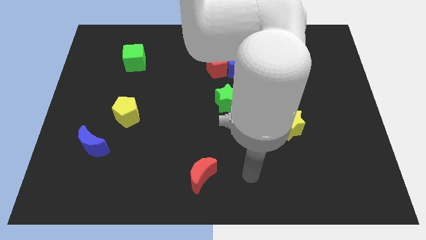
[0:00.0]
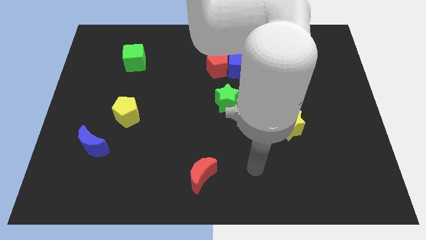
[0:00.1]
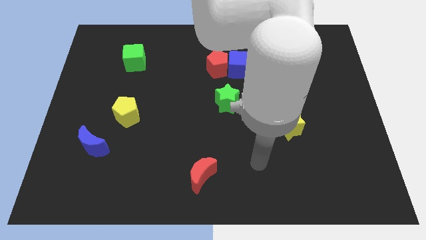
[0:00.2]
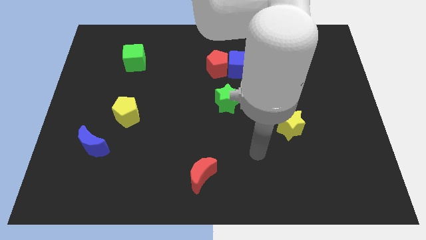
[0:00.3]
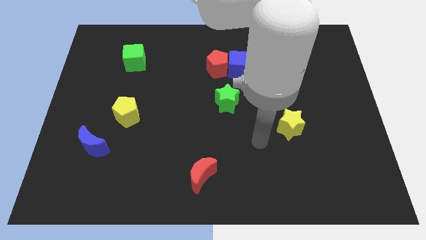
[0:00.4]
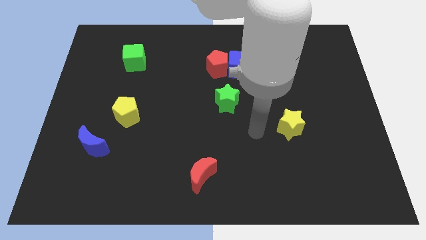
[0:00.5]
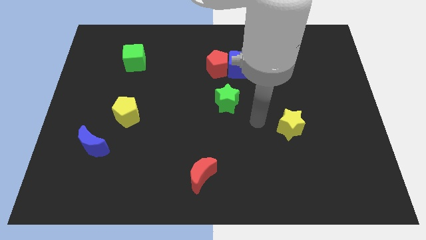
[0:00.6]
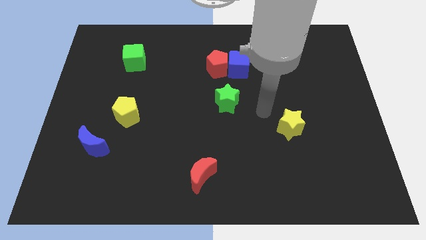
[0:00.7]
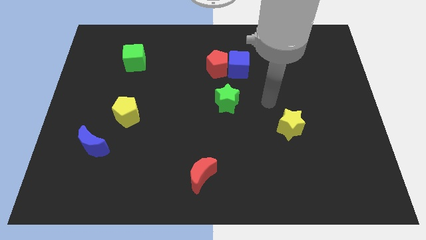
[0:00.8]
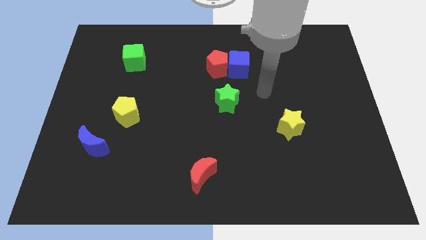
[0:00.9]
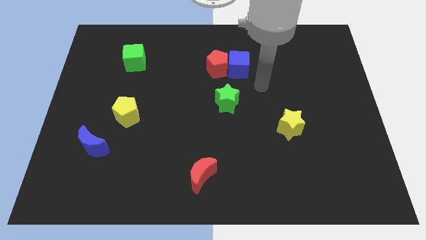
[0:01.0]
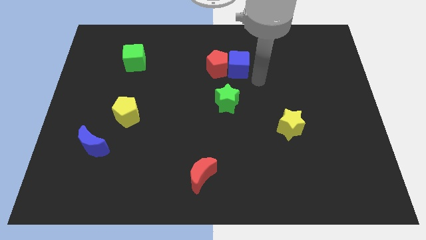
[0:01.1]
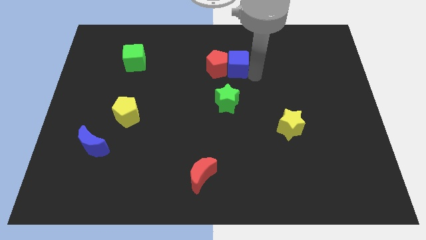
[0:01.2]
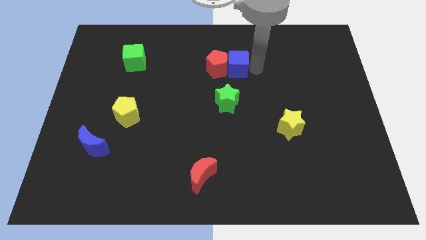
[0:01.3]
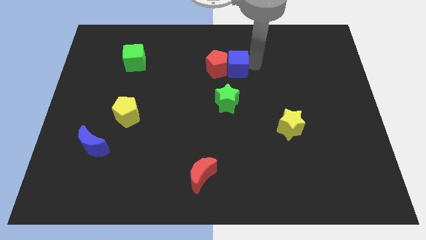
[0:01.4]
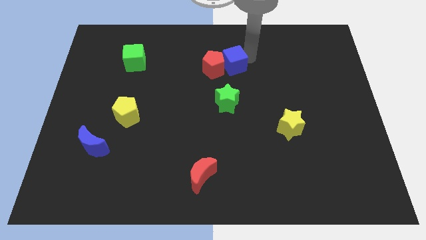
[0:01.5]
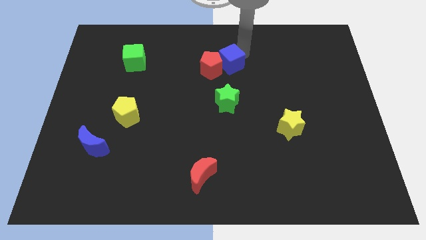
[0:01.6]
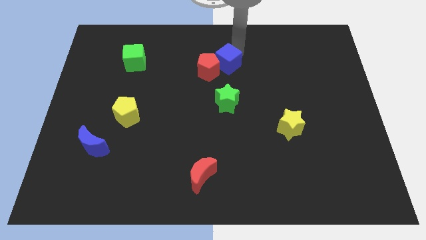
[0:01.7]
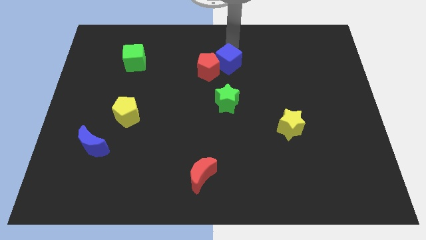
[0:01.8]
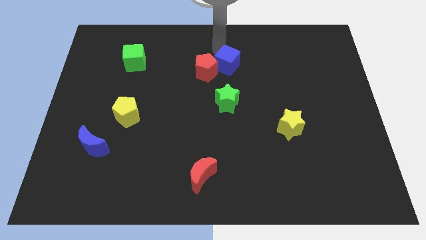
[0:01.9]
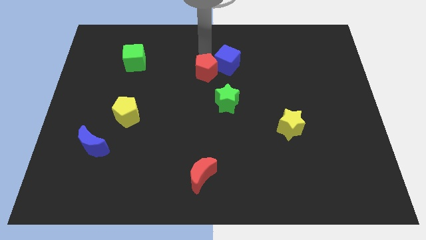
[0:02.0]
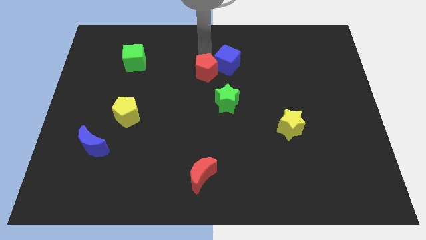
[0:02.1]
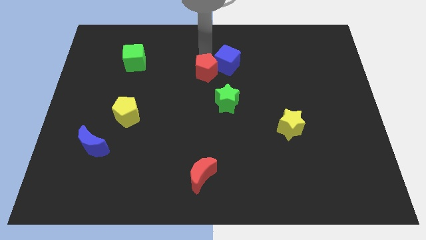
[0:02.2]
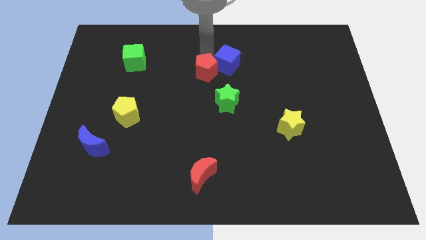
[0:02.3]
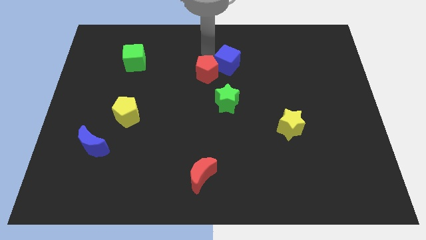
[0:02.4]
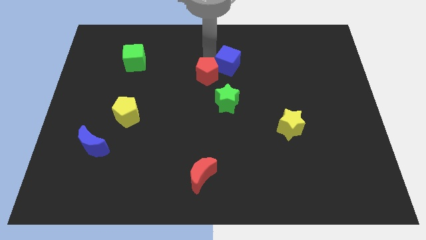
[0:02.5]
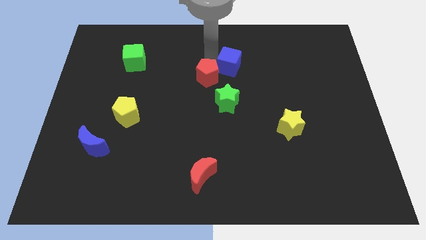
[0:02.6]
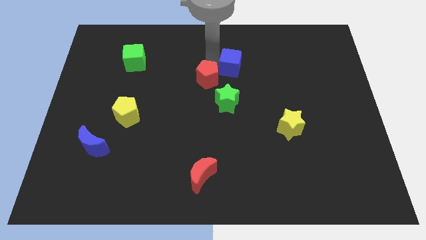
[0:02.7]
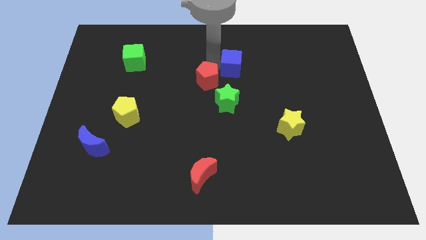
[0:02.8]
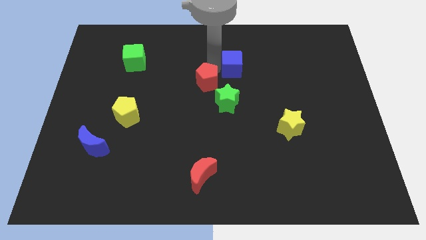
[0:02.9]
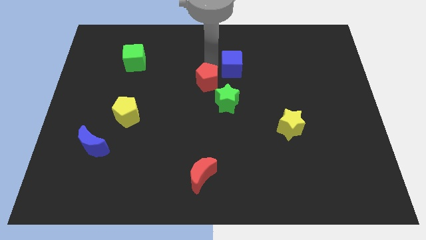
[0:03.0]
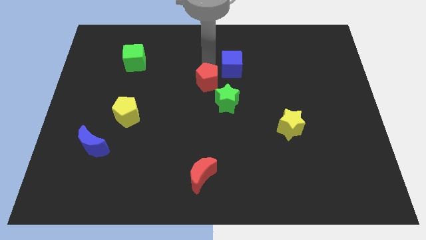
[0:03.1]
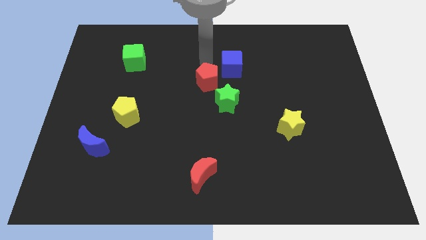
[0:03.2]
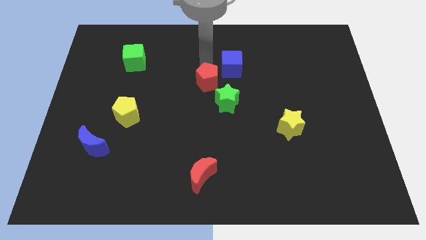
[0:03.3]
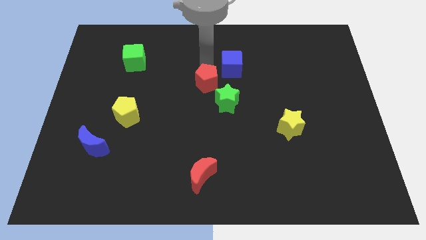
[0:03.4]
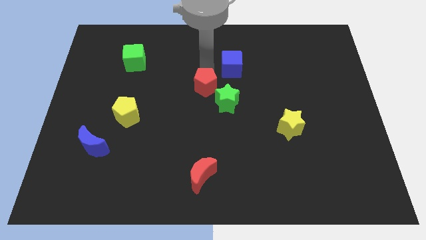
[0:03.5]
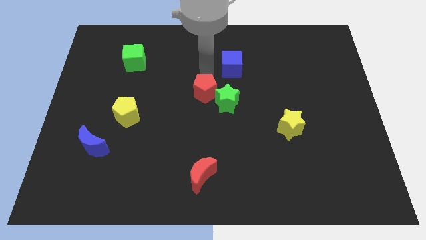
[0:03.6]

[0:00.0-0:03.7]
move the red pentagon a little bit down

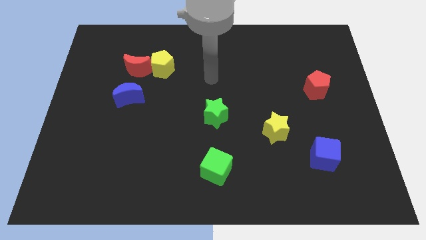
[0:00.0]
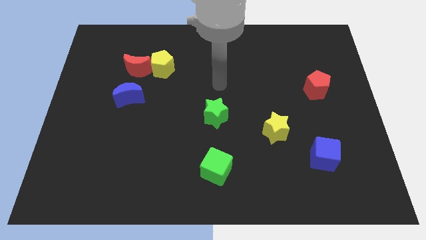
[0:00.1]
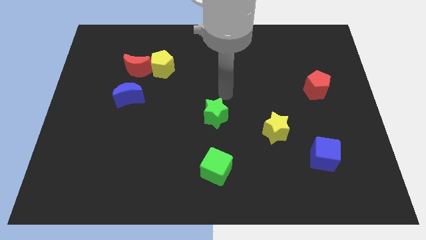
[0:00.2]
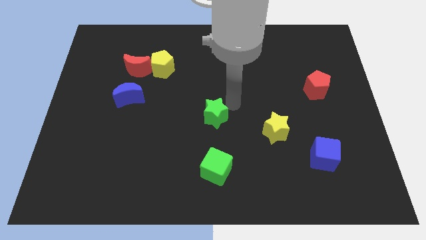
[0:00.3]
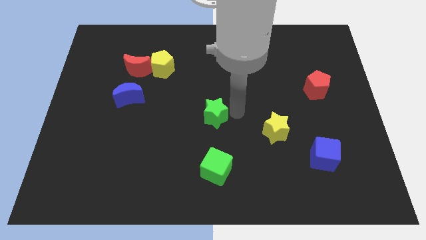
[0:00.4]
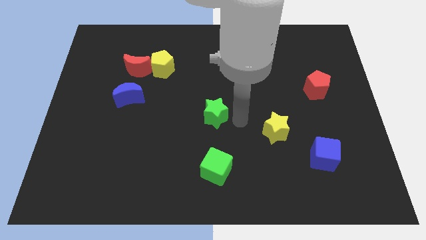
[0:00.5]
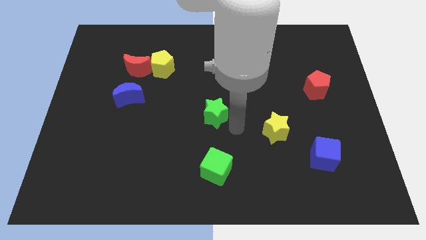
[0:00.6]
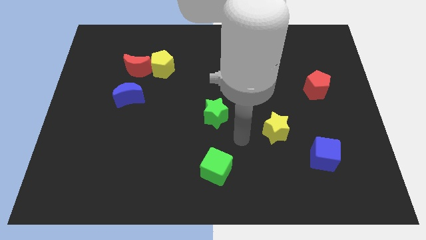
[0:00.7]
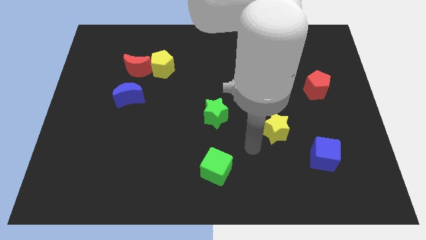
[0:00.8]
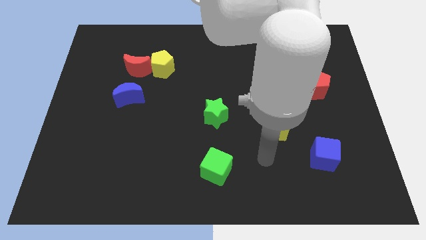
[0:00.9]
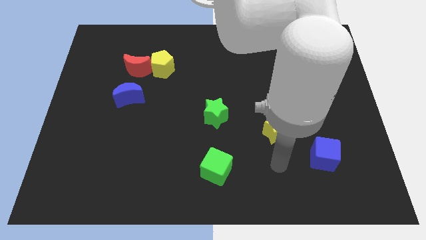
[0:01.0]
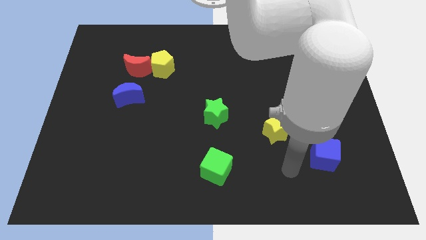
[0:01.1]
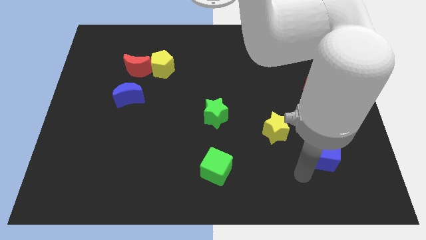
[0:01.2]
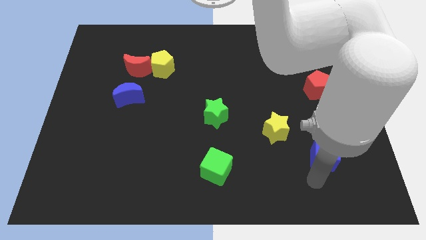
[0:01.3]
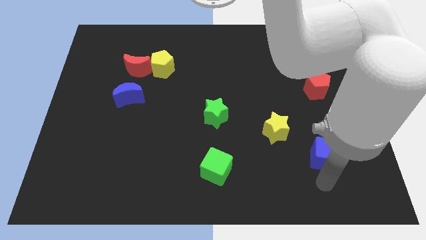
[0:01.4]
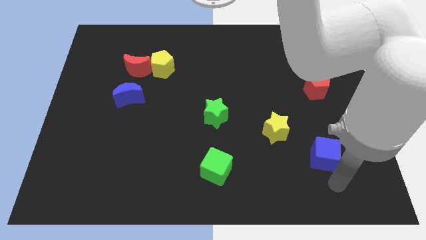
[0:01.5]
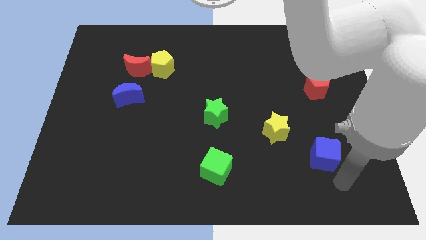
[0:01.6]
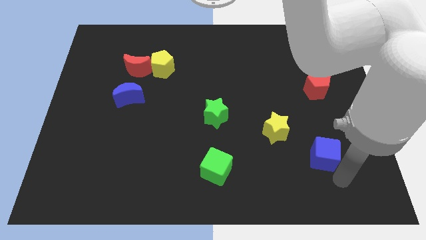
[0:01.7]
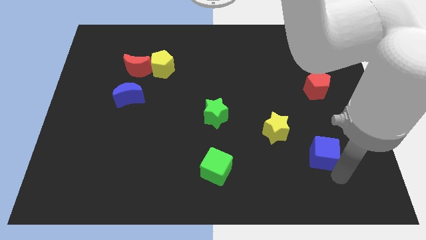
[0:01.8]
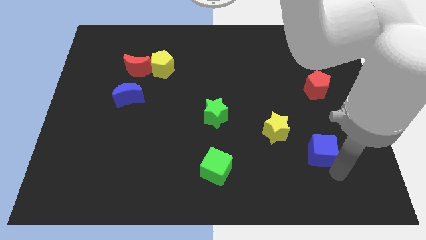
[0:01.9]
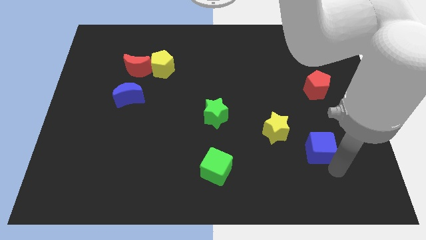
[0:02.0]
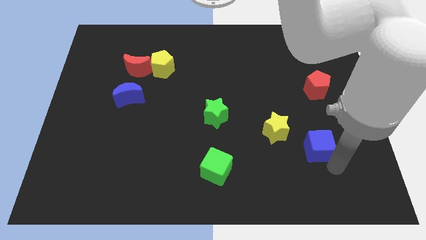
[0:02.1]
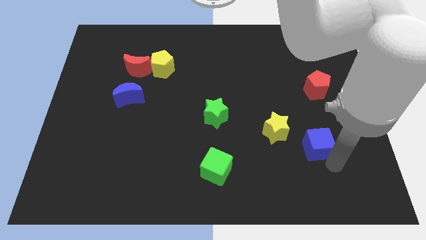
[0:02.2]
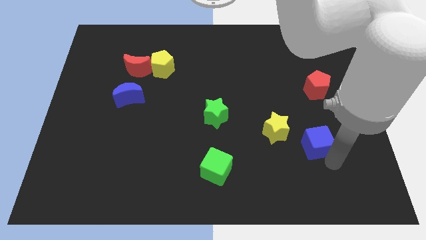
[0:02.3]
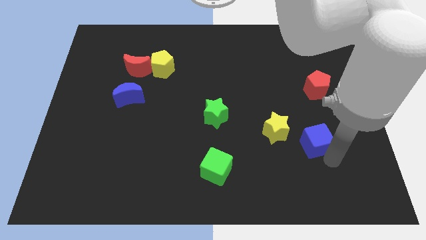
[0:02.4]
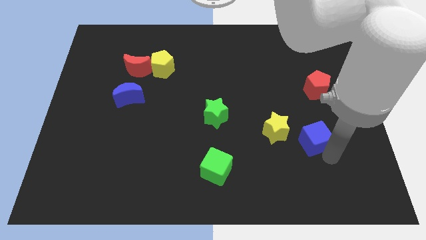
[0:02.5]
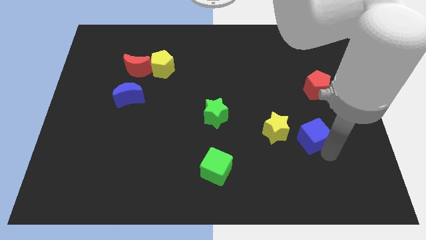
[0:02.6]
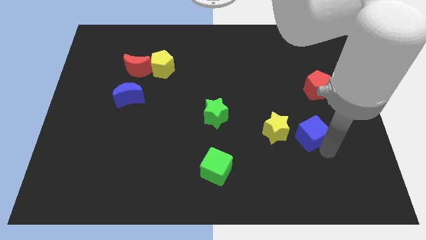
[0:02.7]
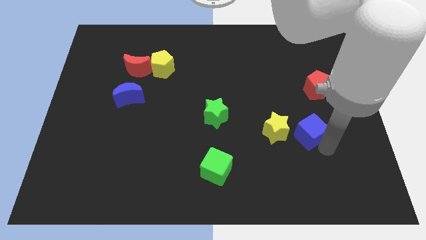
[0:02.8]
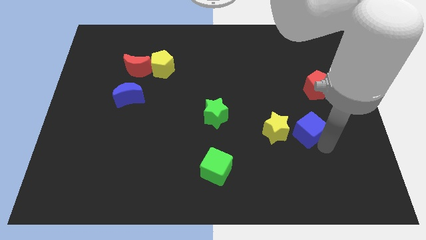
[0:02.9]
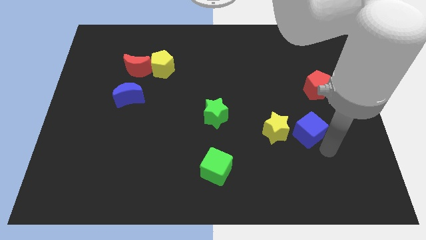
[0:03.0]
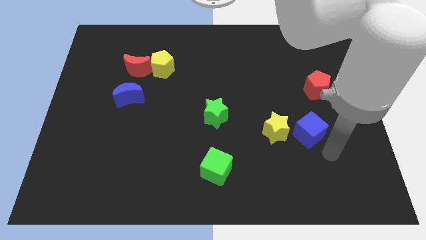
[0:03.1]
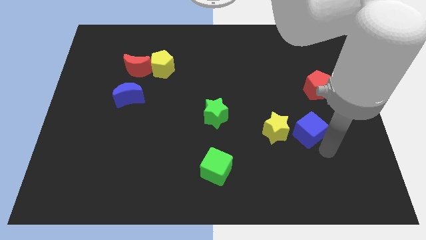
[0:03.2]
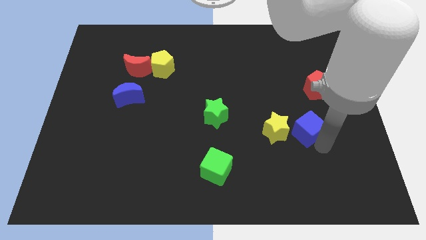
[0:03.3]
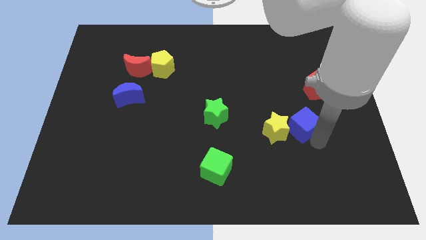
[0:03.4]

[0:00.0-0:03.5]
slightly move the blue cube upwards and left

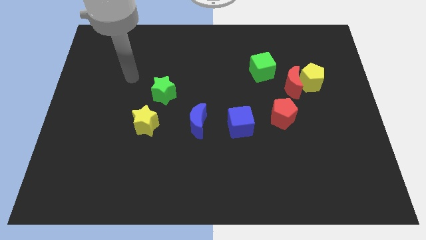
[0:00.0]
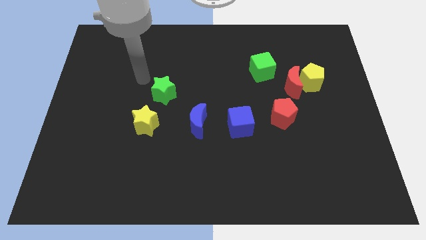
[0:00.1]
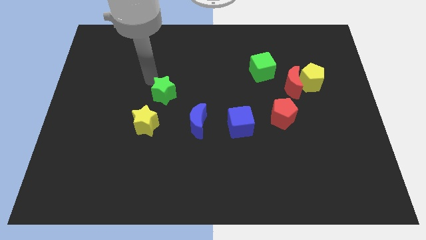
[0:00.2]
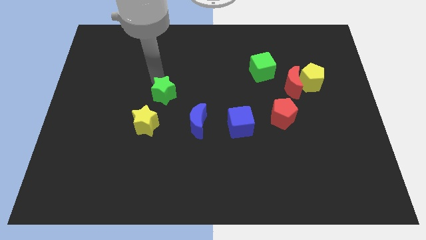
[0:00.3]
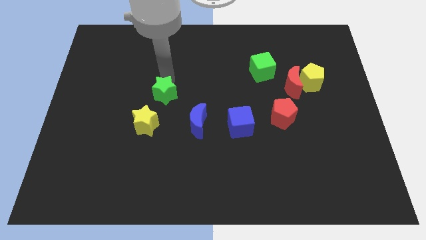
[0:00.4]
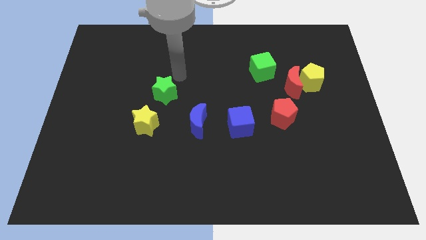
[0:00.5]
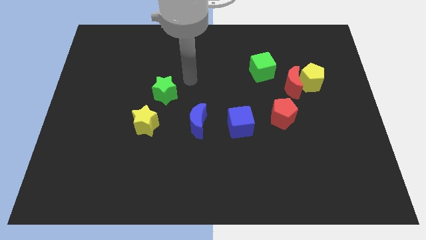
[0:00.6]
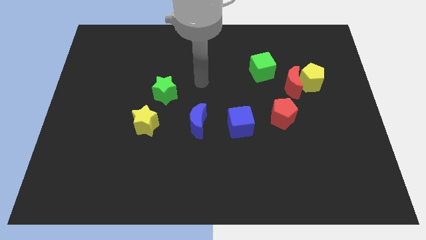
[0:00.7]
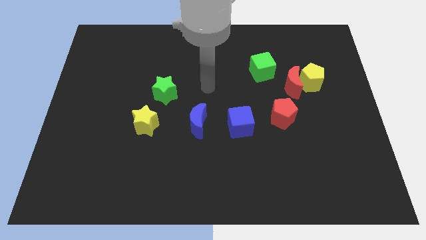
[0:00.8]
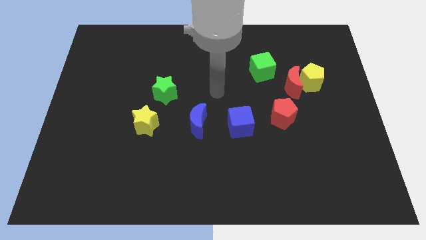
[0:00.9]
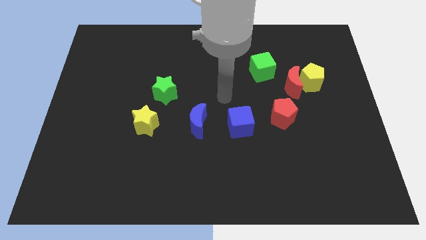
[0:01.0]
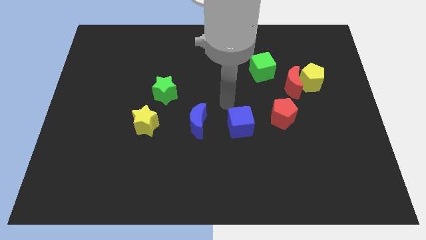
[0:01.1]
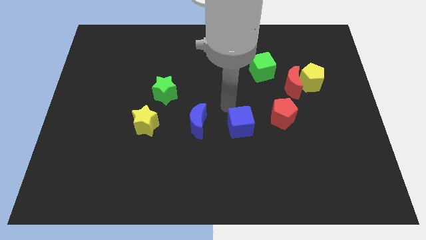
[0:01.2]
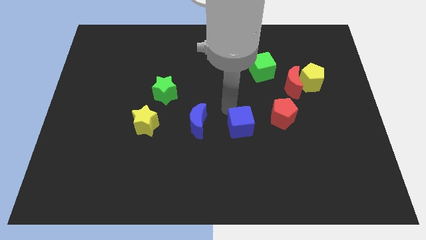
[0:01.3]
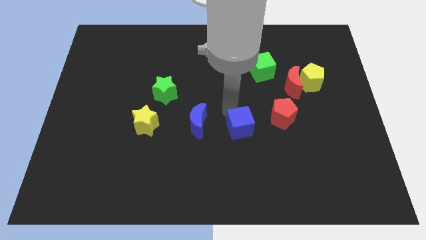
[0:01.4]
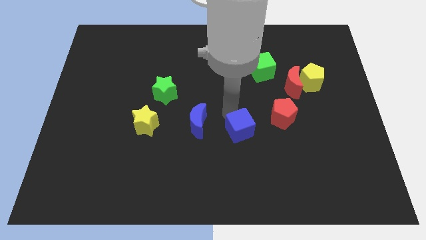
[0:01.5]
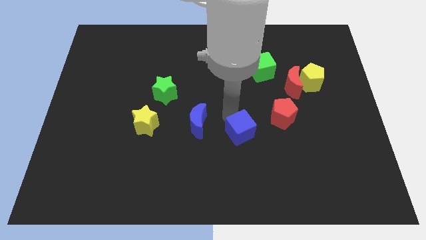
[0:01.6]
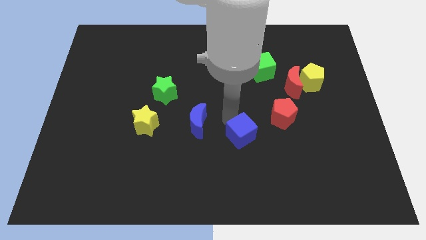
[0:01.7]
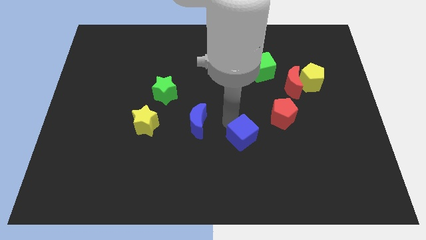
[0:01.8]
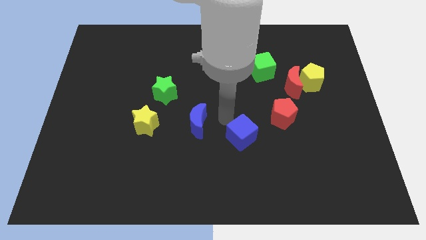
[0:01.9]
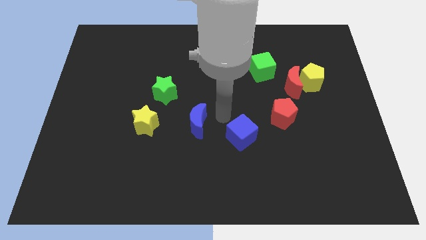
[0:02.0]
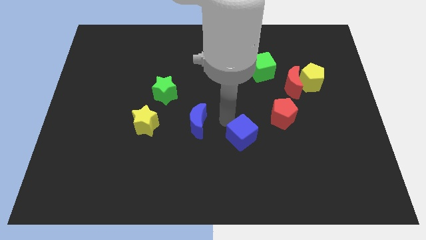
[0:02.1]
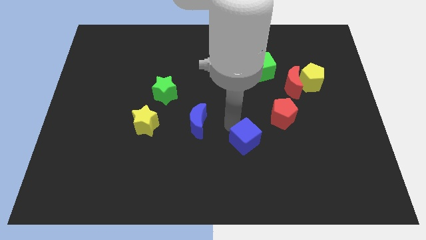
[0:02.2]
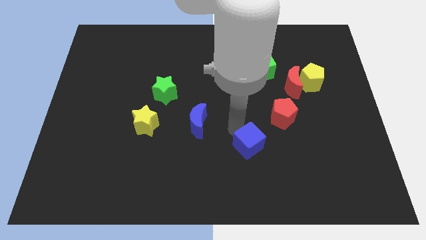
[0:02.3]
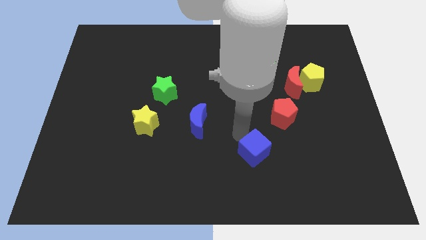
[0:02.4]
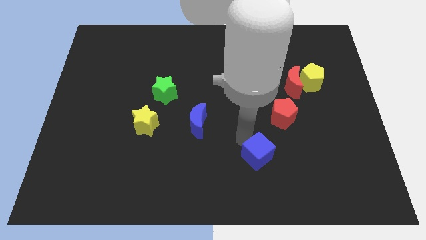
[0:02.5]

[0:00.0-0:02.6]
push the blue cube a little bit downwards and right diagonally
